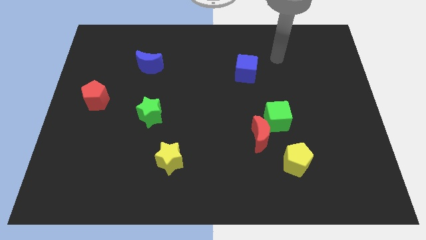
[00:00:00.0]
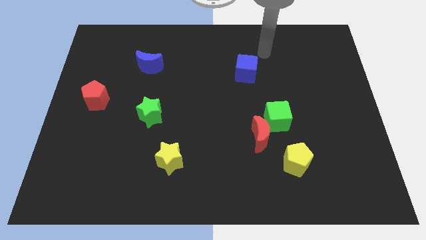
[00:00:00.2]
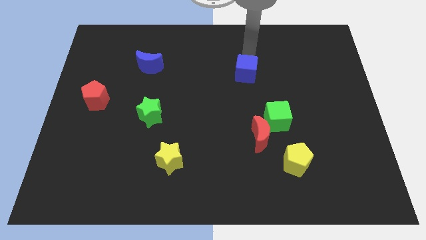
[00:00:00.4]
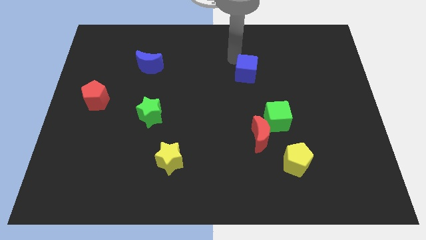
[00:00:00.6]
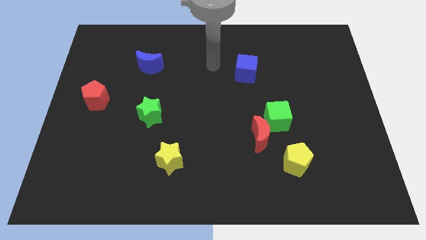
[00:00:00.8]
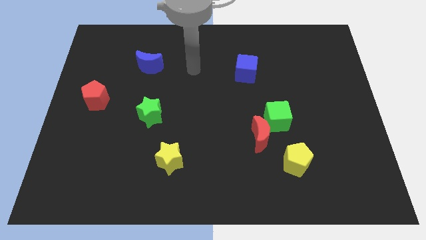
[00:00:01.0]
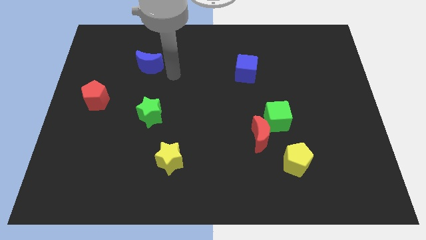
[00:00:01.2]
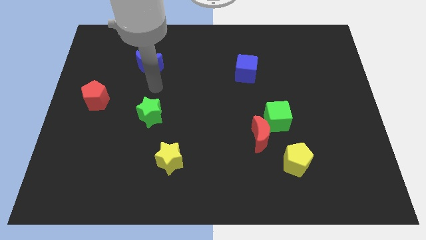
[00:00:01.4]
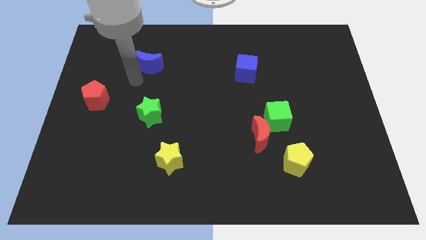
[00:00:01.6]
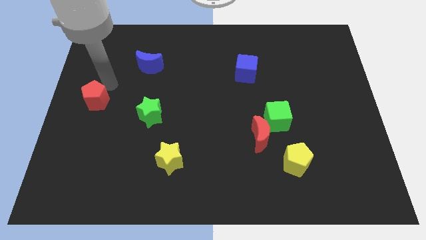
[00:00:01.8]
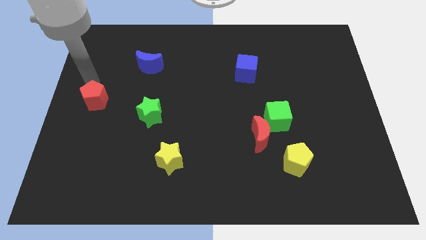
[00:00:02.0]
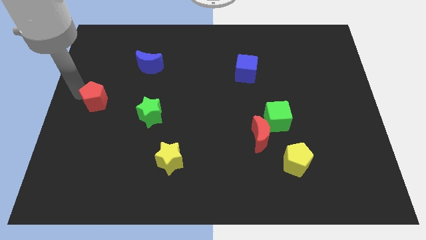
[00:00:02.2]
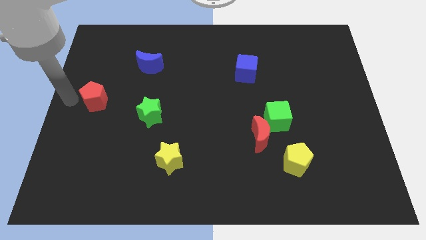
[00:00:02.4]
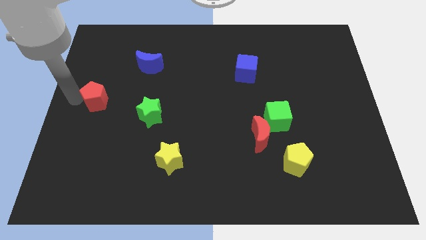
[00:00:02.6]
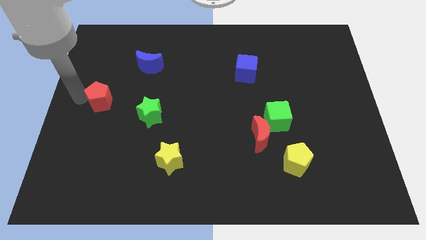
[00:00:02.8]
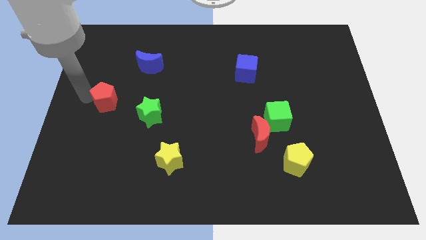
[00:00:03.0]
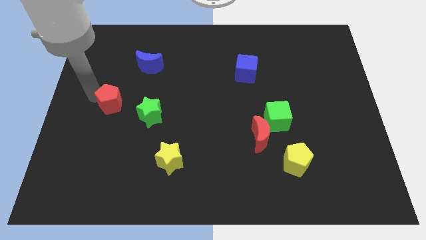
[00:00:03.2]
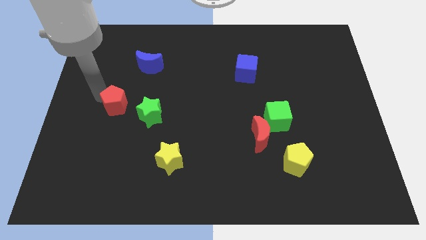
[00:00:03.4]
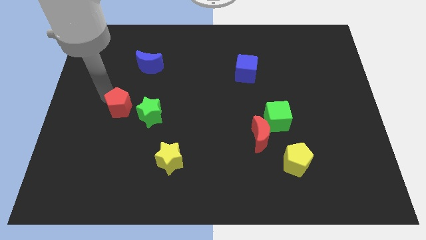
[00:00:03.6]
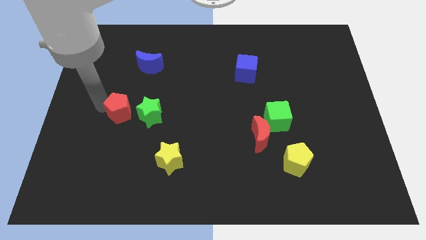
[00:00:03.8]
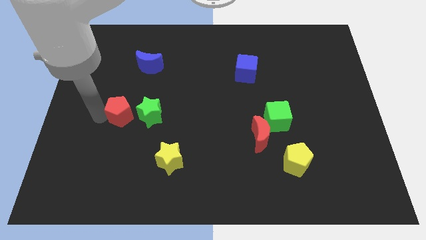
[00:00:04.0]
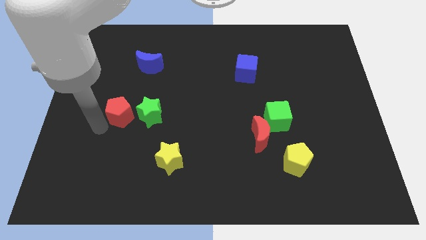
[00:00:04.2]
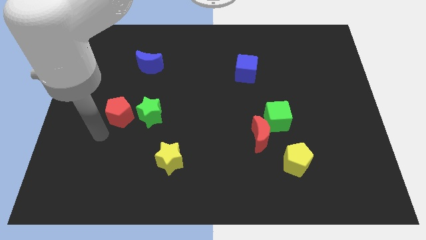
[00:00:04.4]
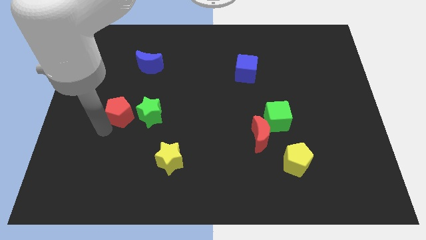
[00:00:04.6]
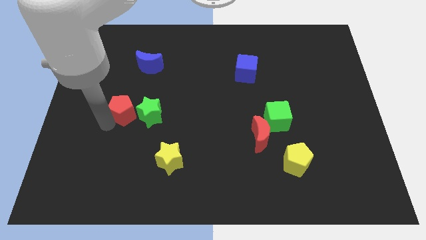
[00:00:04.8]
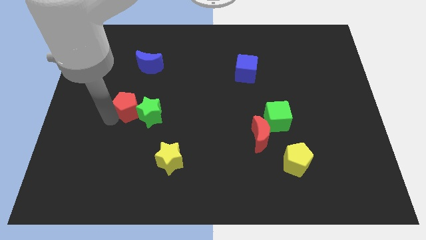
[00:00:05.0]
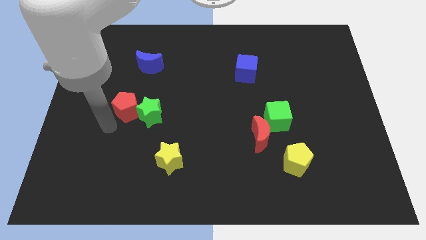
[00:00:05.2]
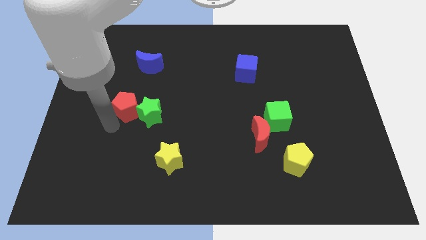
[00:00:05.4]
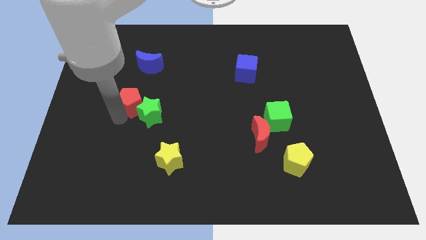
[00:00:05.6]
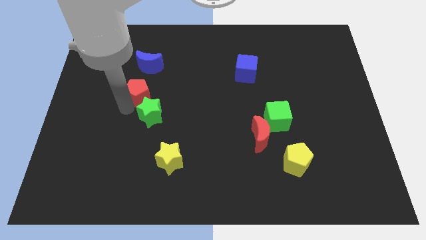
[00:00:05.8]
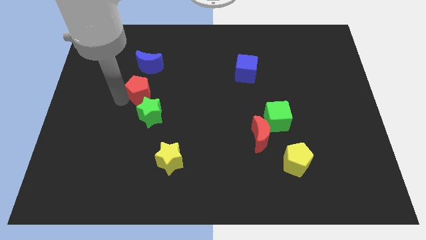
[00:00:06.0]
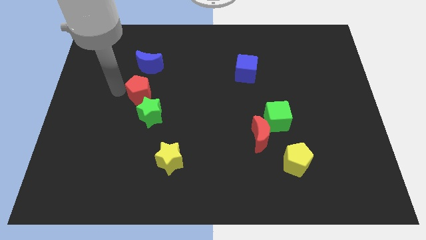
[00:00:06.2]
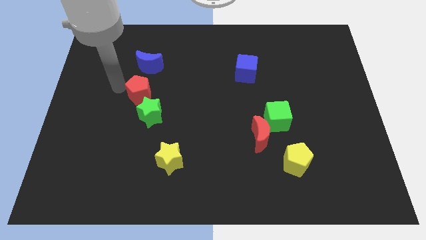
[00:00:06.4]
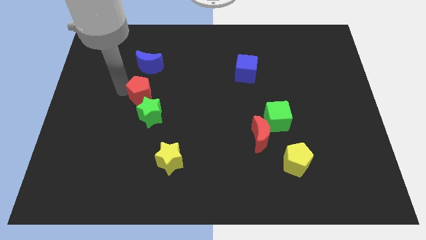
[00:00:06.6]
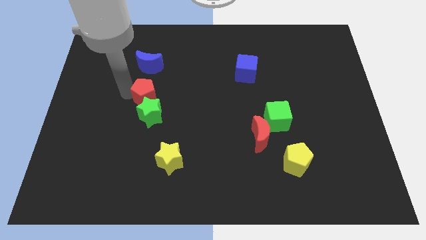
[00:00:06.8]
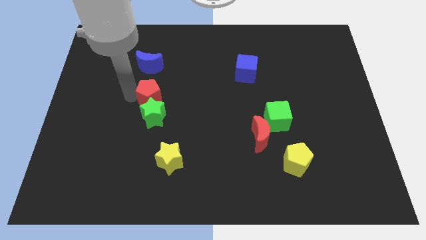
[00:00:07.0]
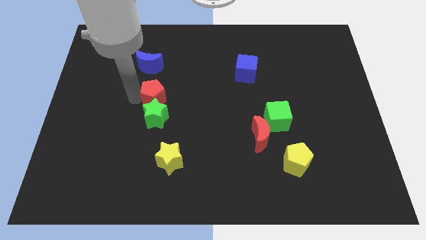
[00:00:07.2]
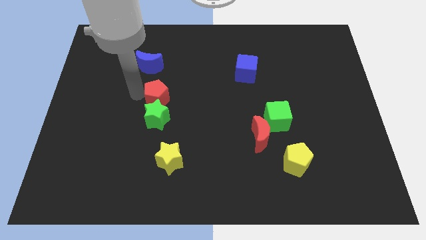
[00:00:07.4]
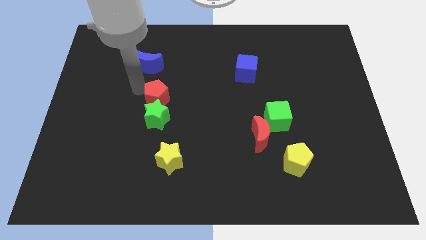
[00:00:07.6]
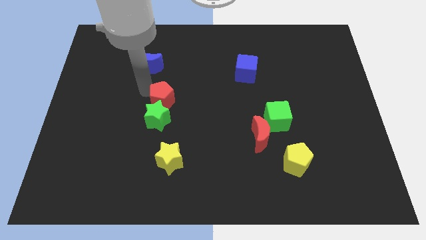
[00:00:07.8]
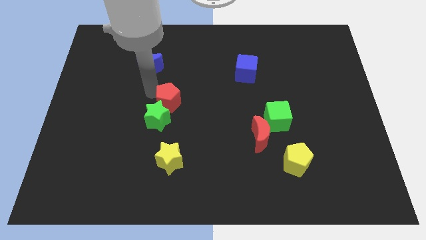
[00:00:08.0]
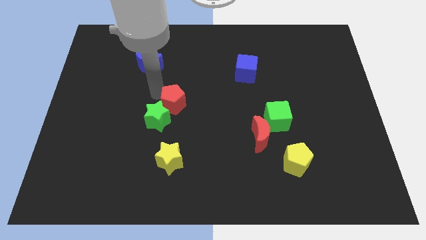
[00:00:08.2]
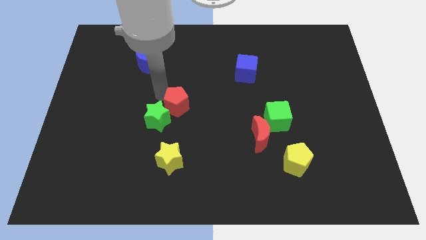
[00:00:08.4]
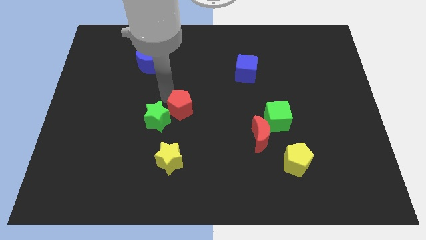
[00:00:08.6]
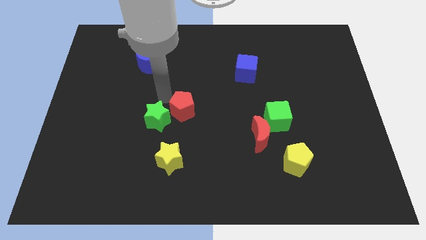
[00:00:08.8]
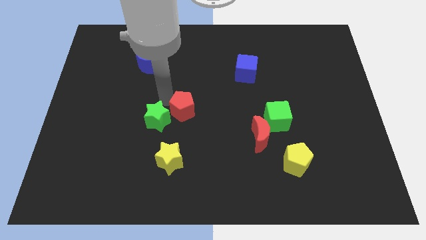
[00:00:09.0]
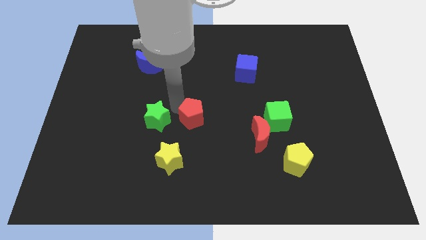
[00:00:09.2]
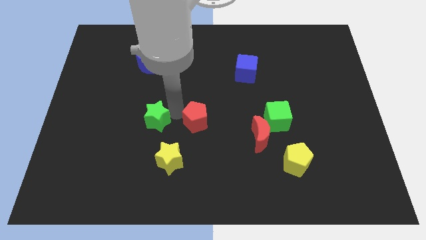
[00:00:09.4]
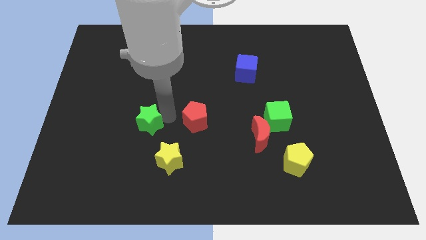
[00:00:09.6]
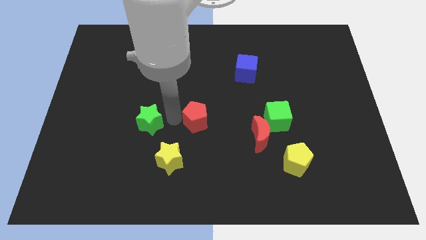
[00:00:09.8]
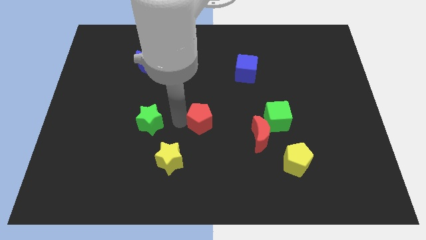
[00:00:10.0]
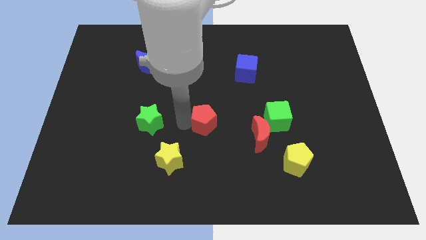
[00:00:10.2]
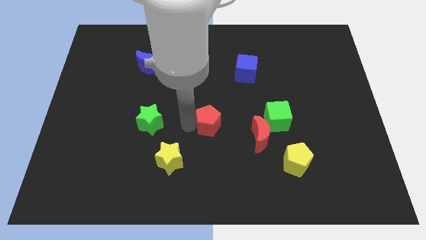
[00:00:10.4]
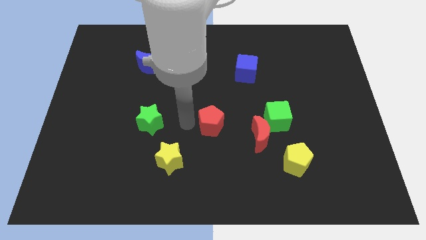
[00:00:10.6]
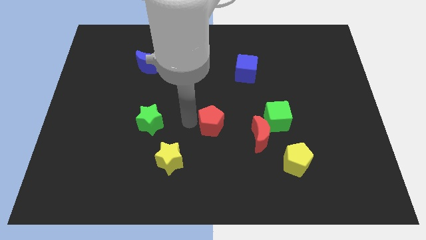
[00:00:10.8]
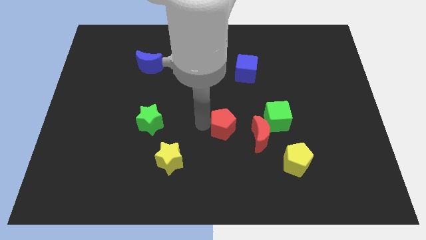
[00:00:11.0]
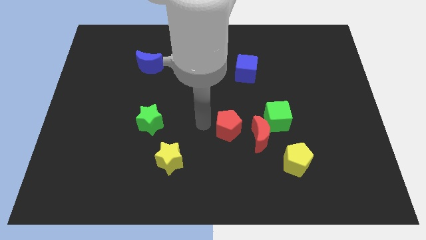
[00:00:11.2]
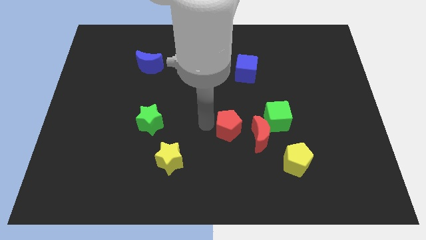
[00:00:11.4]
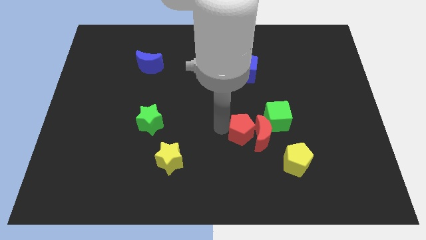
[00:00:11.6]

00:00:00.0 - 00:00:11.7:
slide the red pentagon close to the red moon
